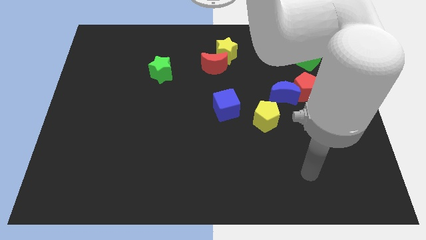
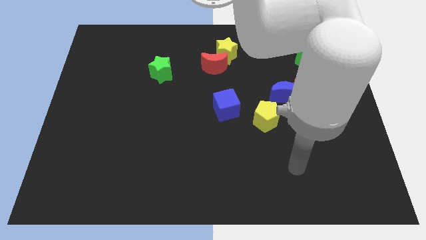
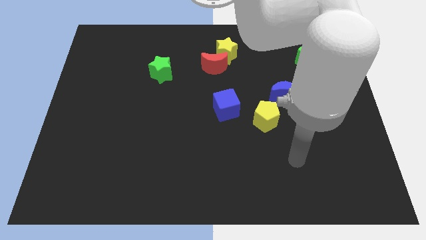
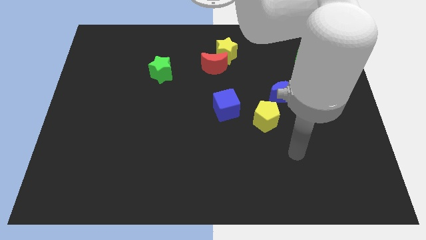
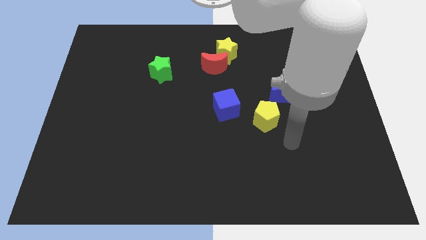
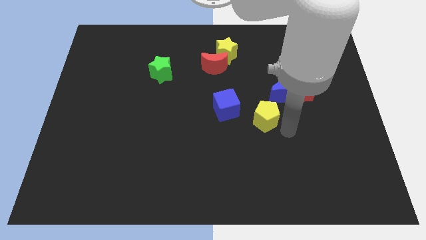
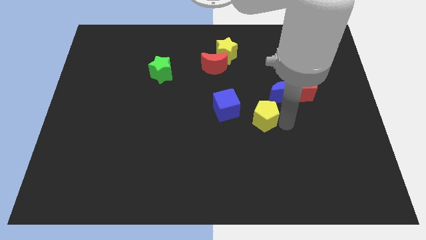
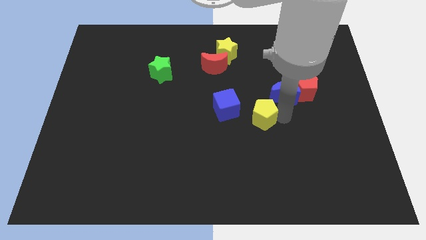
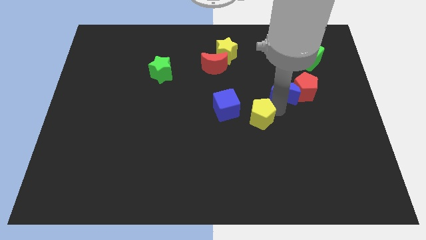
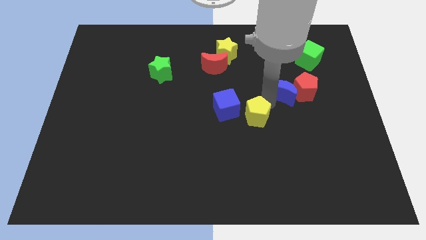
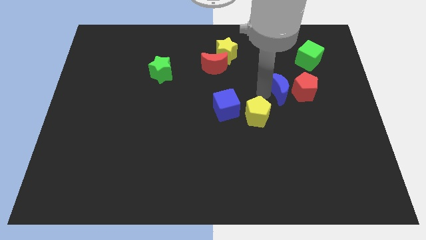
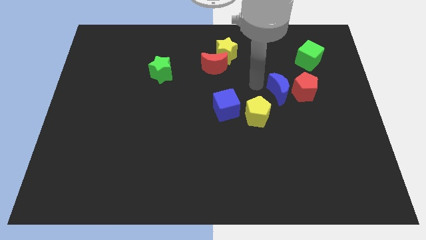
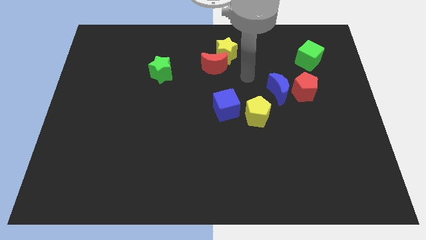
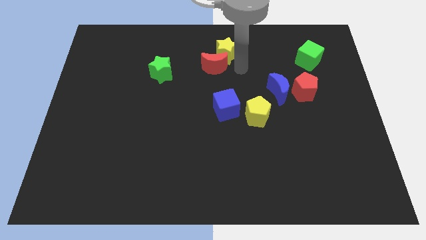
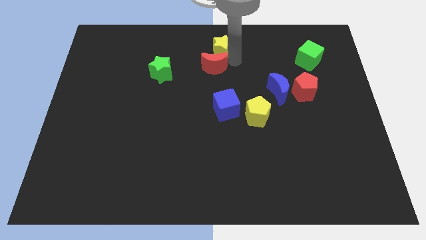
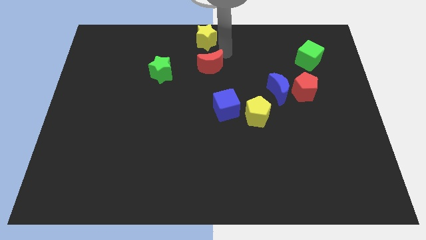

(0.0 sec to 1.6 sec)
move the red moon away from the yellow star

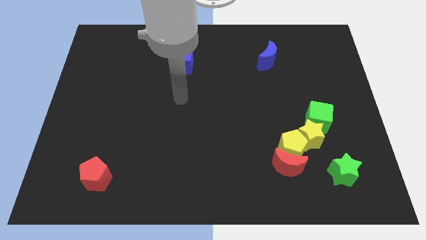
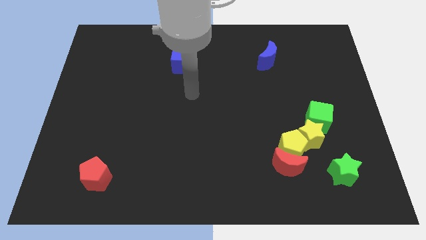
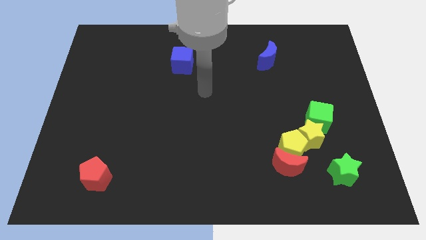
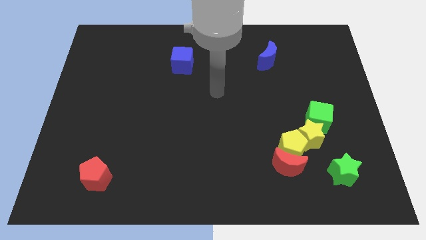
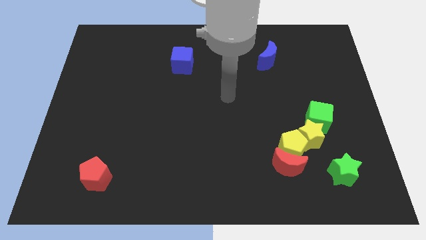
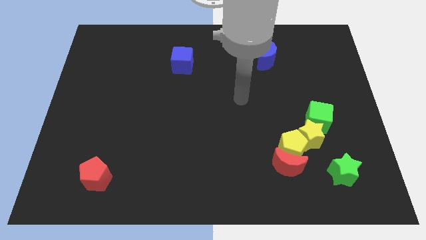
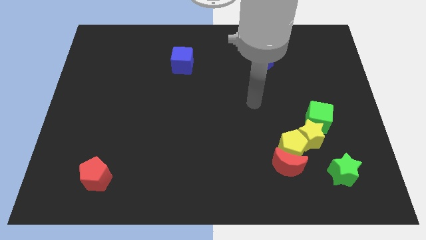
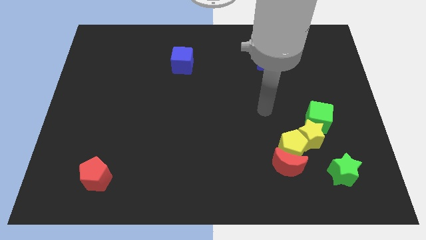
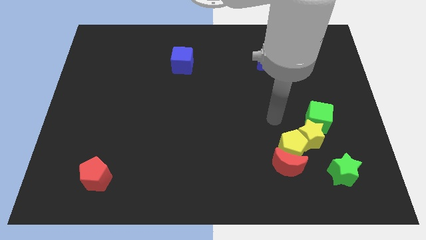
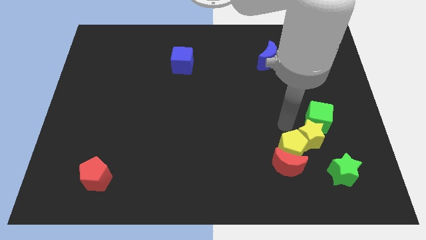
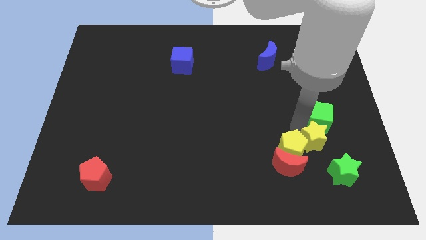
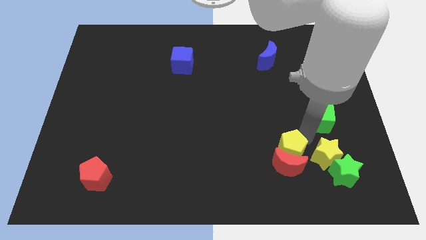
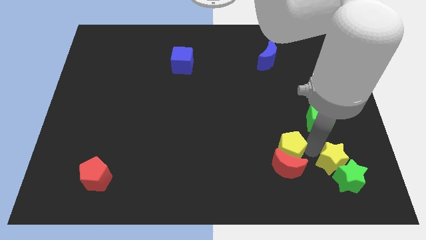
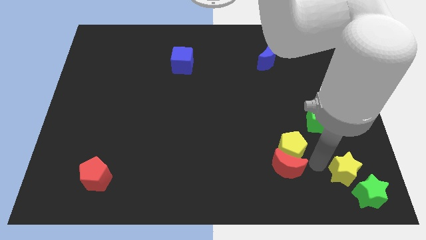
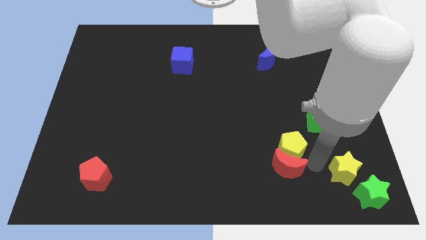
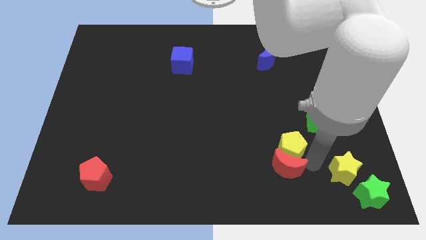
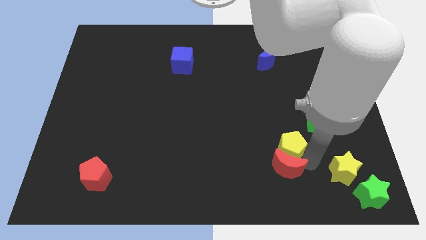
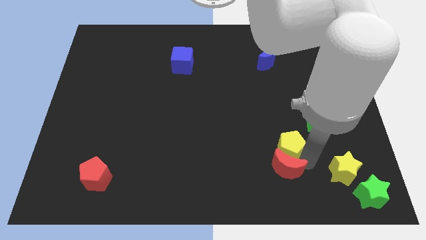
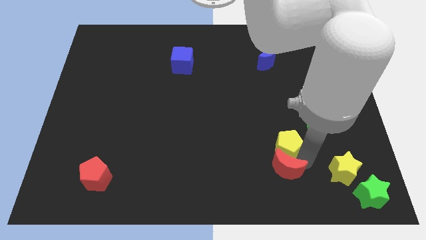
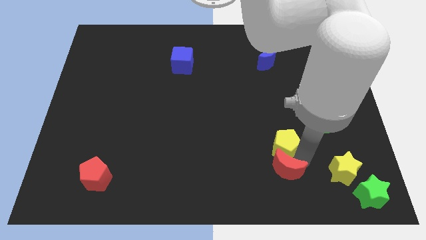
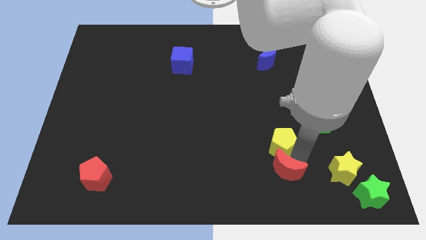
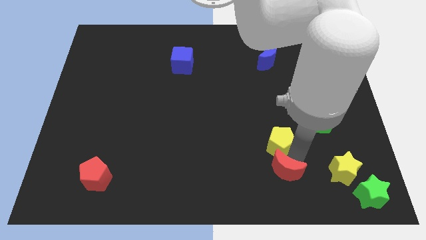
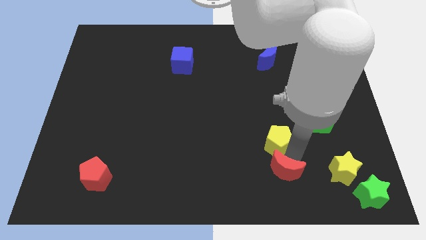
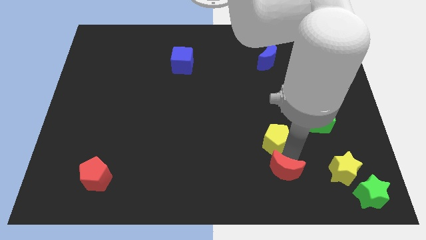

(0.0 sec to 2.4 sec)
pull the yellow pentagon apart from the red moon and yellow star

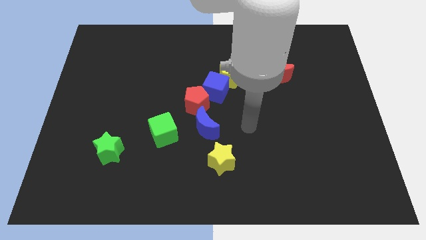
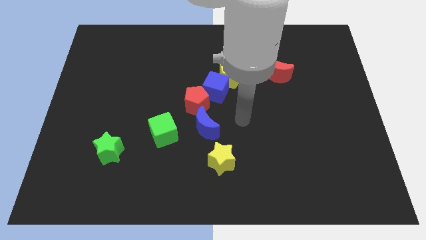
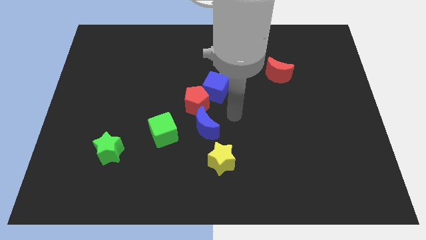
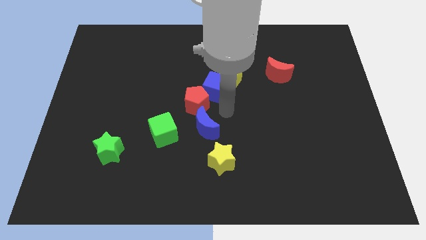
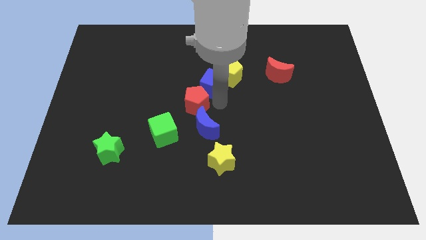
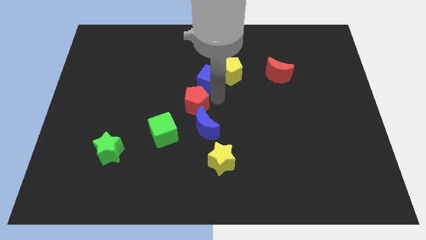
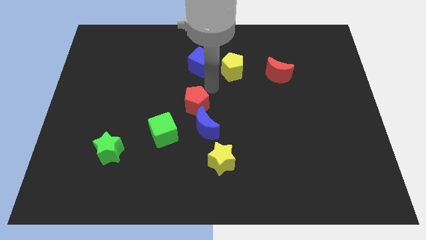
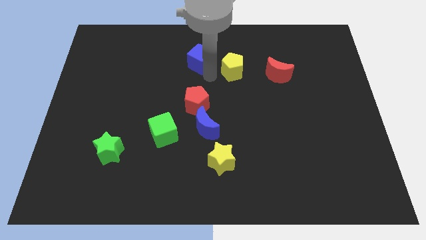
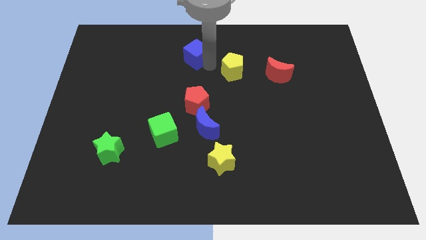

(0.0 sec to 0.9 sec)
separate the yellow pentagon from the blue cube

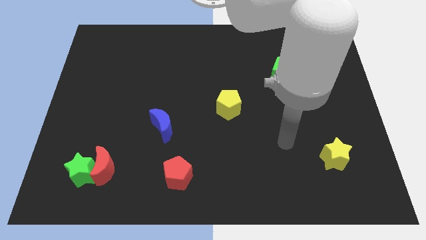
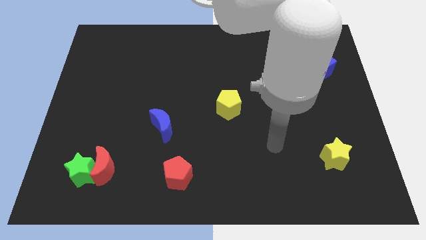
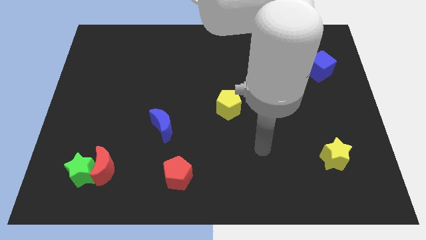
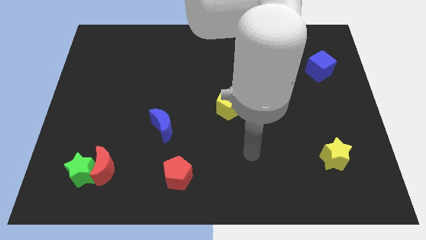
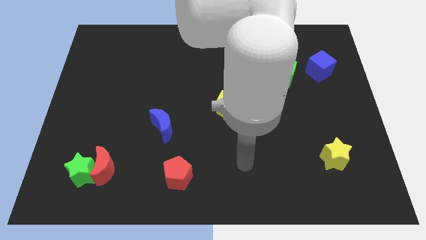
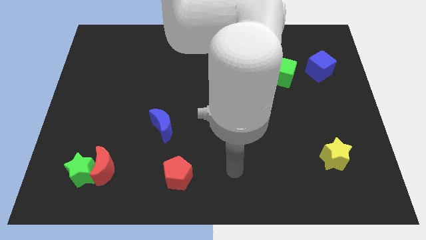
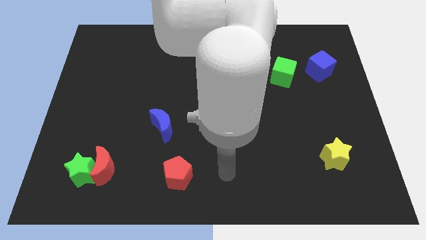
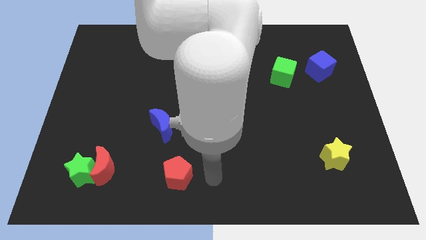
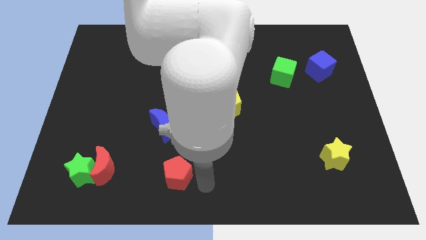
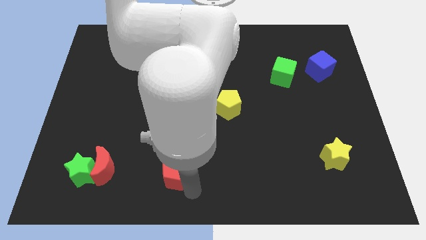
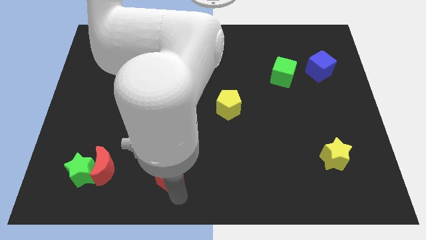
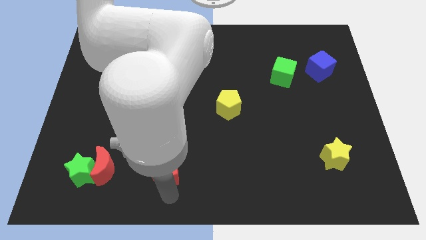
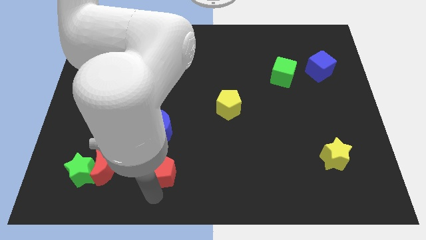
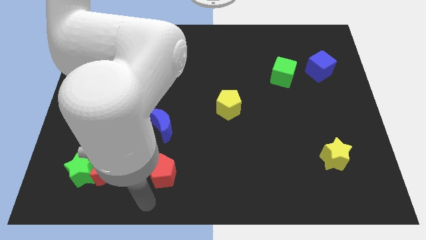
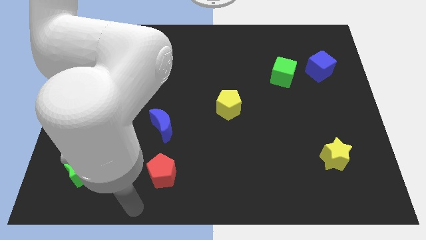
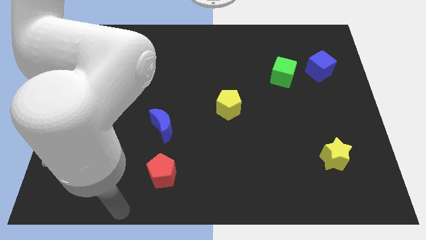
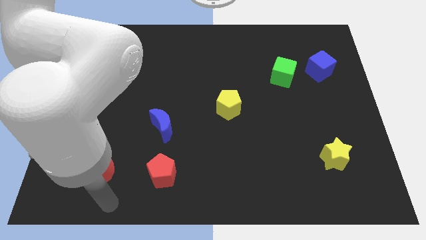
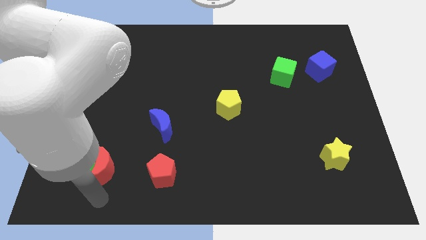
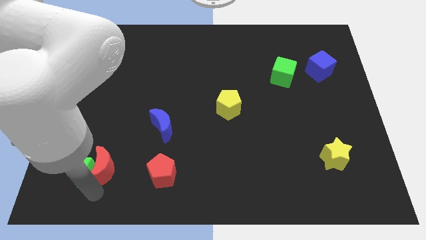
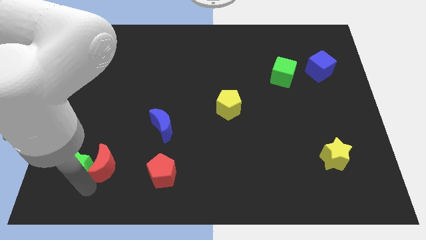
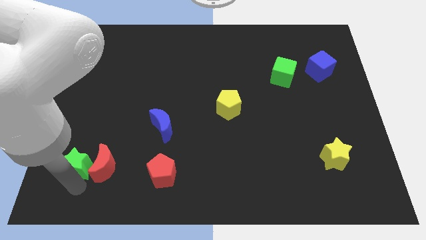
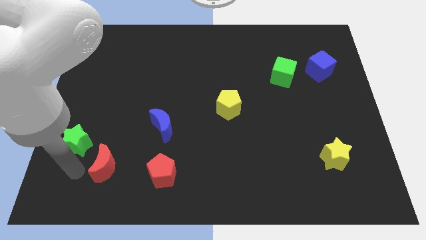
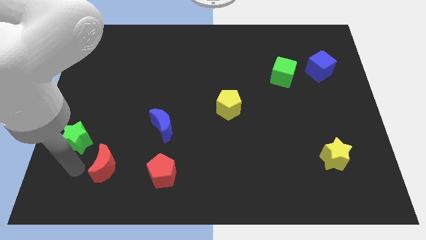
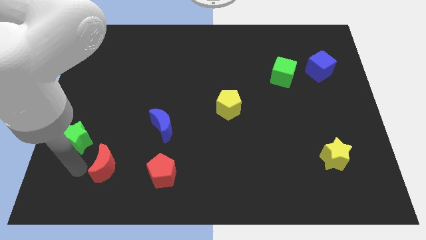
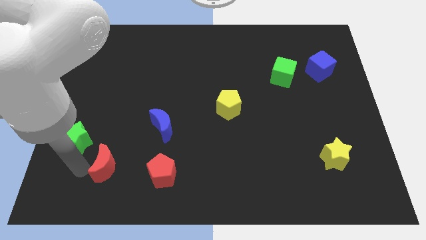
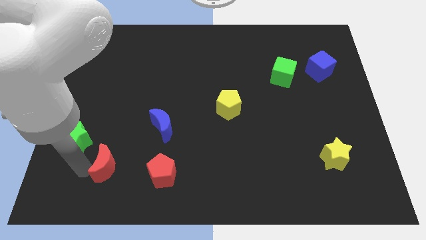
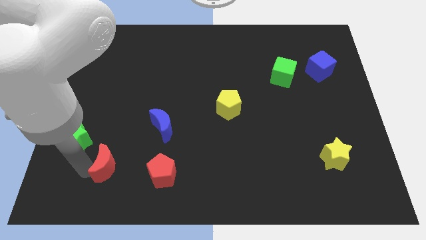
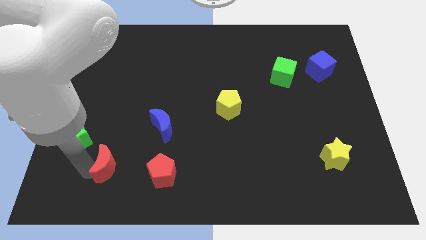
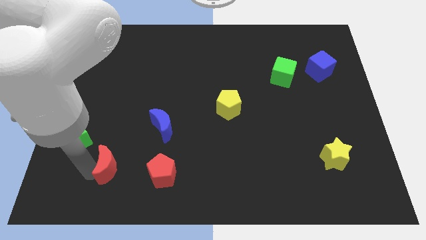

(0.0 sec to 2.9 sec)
separate the red moon from the green star

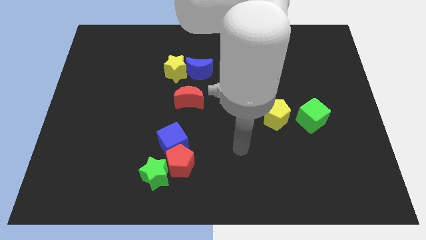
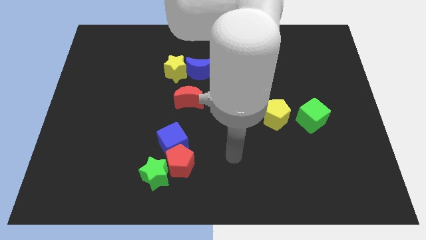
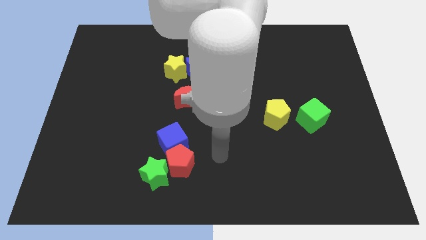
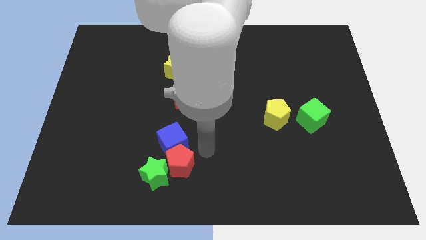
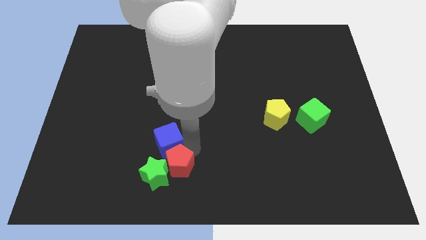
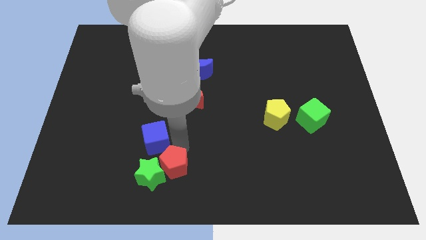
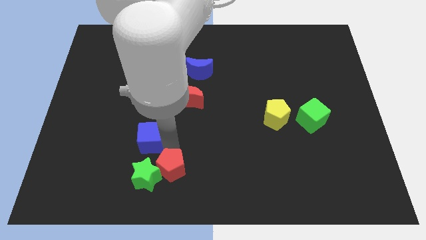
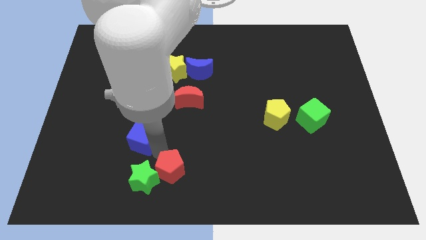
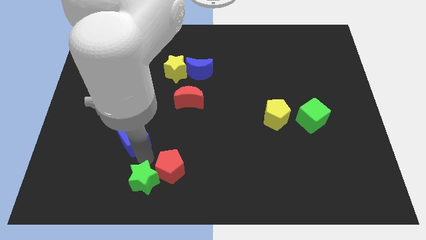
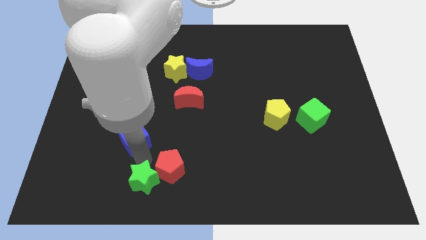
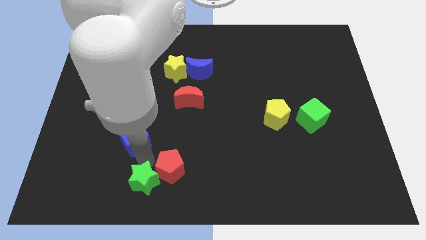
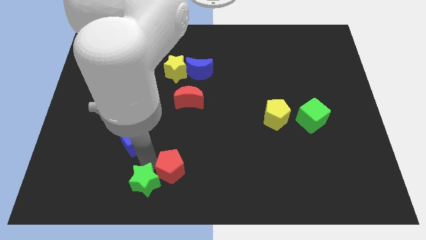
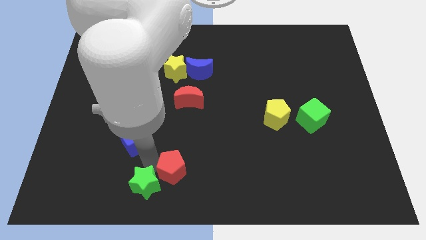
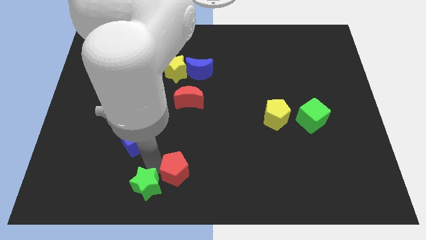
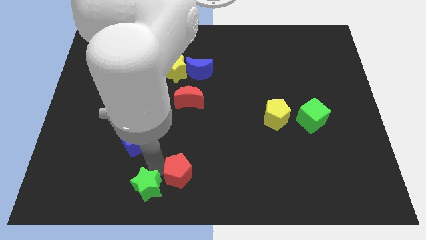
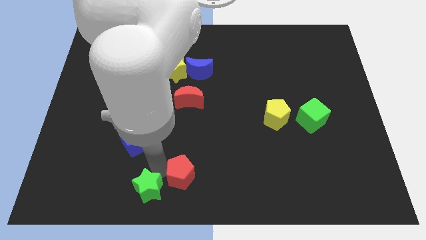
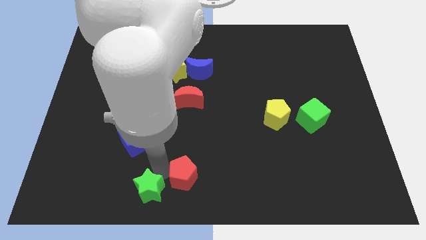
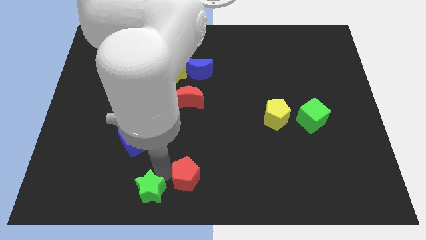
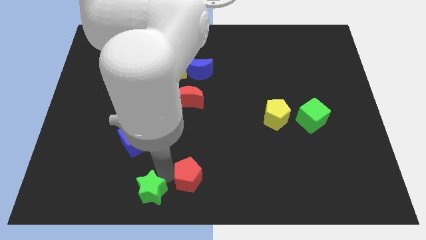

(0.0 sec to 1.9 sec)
move the red pentagon away from the blue cube and green star
